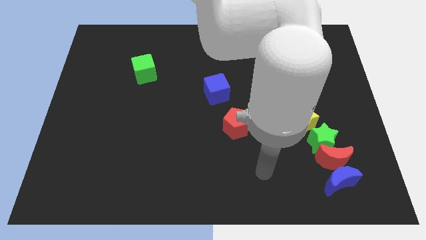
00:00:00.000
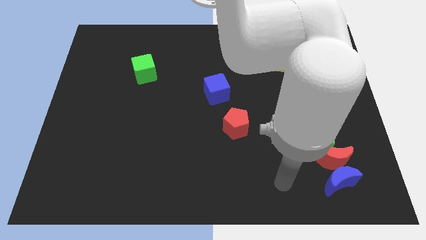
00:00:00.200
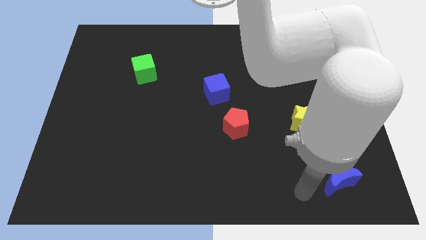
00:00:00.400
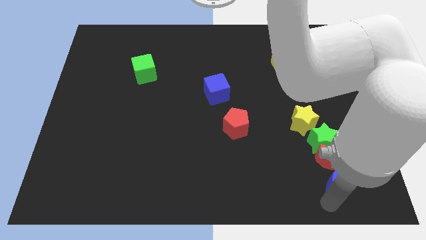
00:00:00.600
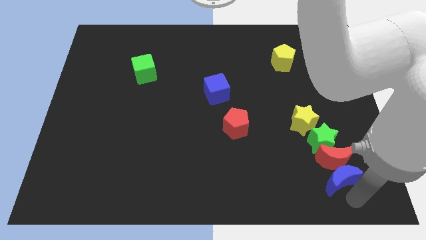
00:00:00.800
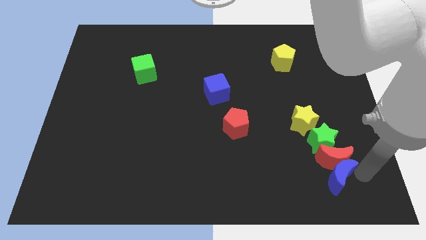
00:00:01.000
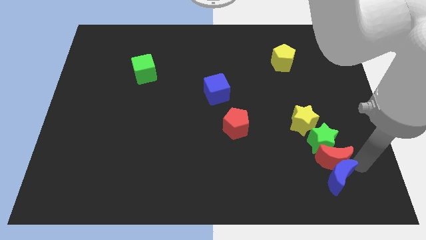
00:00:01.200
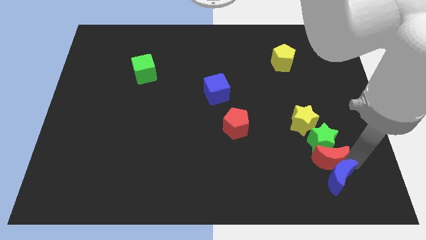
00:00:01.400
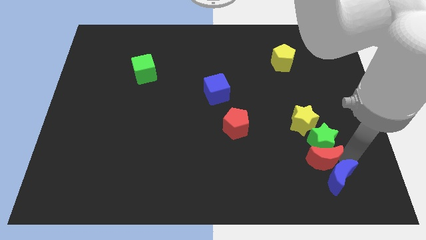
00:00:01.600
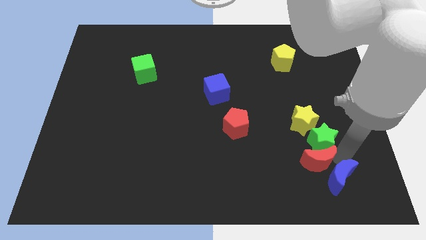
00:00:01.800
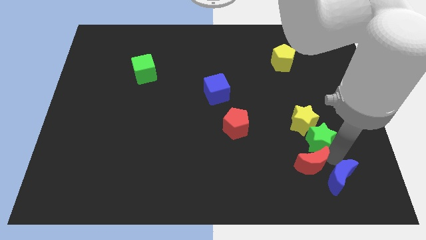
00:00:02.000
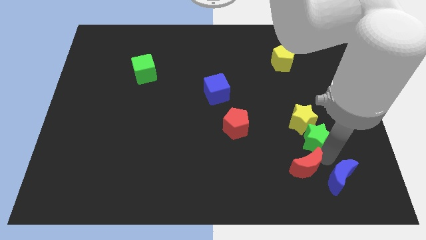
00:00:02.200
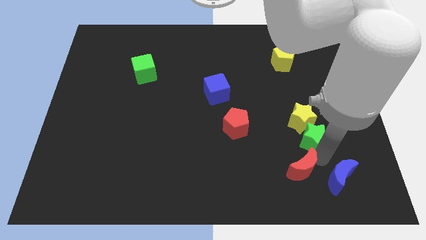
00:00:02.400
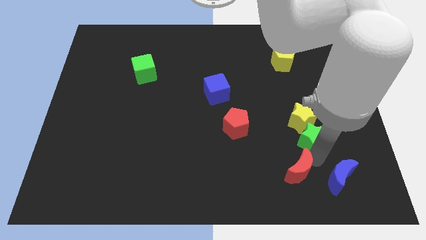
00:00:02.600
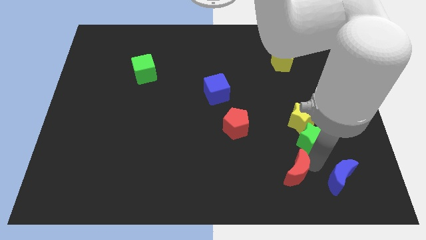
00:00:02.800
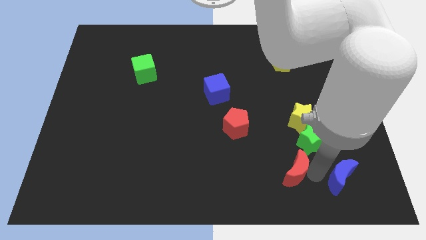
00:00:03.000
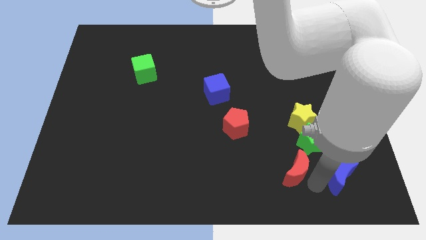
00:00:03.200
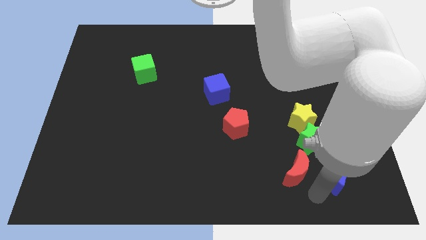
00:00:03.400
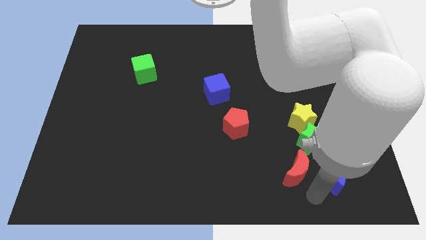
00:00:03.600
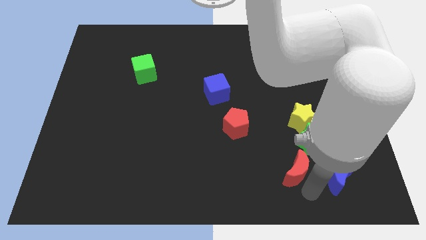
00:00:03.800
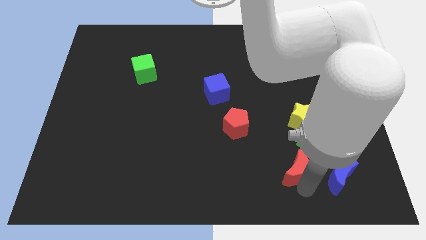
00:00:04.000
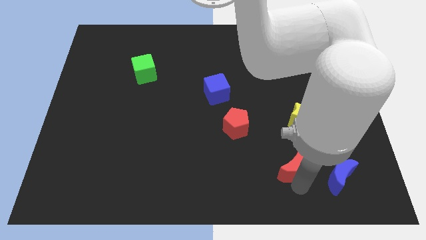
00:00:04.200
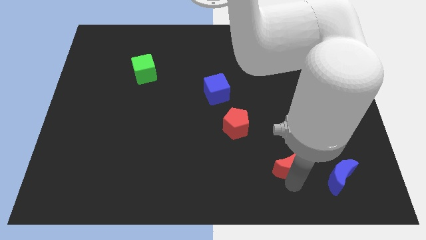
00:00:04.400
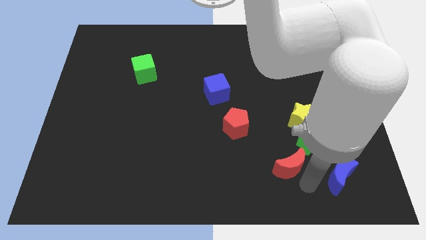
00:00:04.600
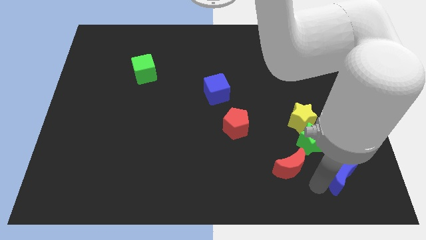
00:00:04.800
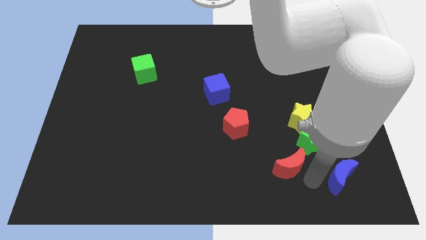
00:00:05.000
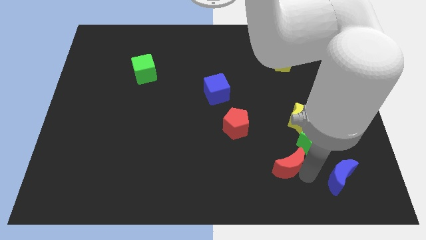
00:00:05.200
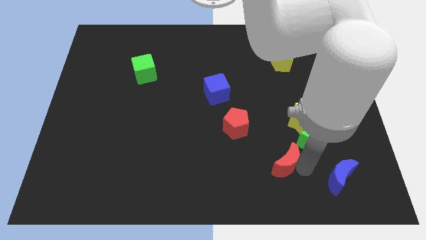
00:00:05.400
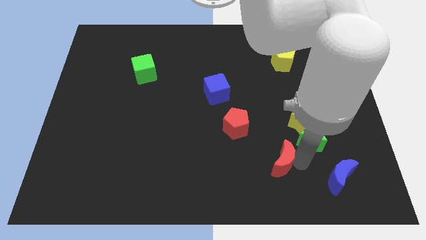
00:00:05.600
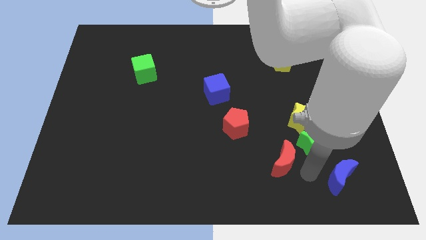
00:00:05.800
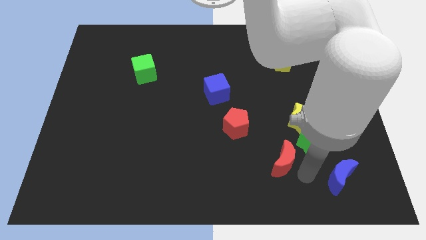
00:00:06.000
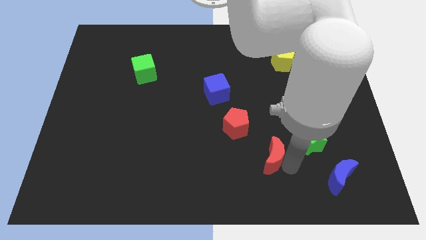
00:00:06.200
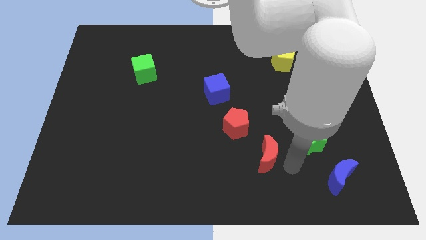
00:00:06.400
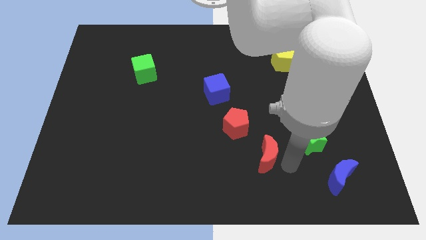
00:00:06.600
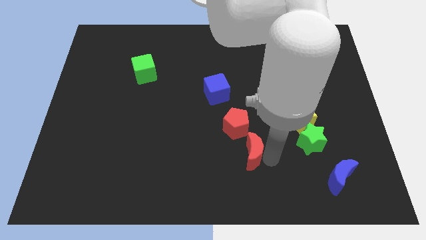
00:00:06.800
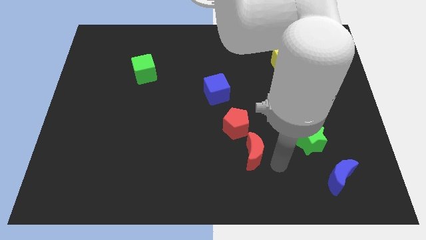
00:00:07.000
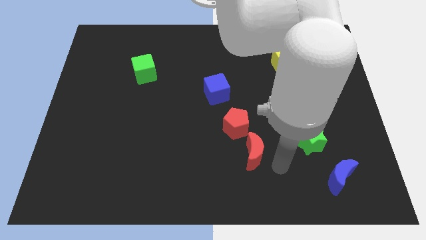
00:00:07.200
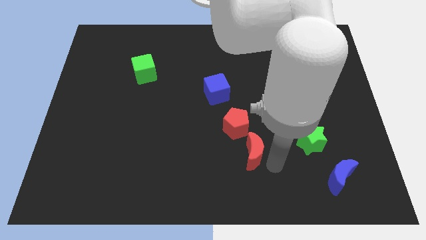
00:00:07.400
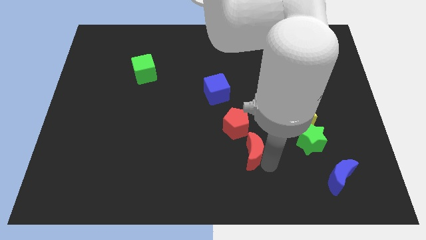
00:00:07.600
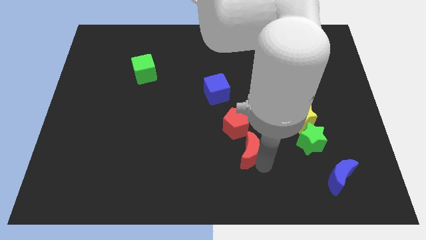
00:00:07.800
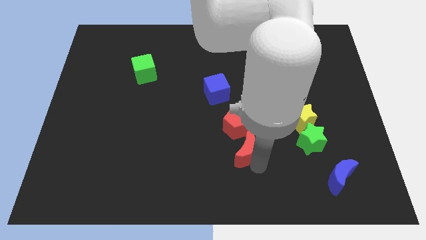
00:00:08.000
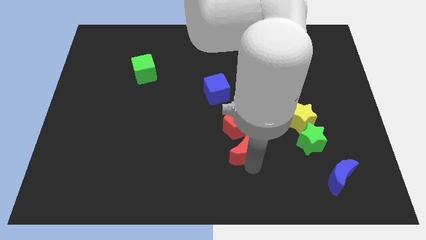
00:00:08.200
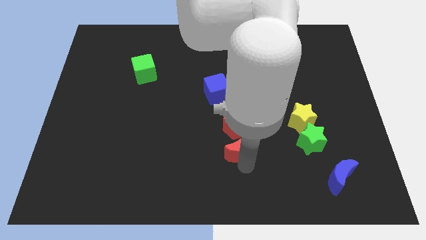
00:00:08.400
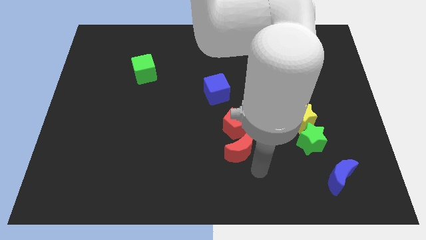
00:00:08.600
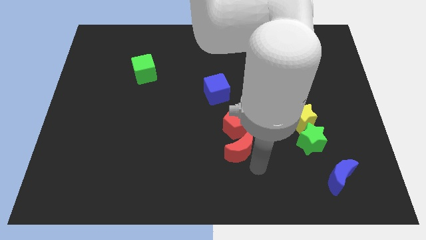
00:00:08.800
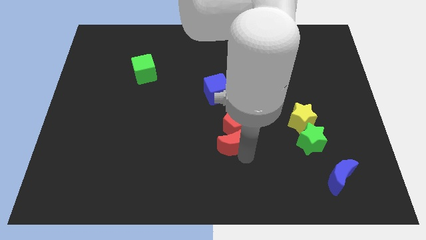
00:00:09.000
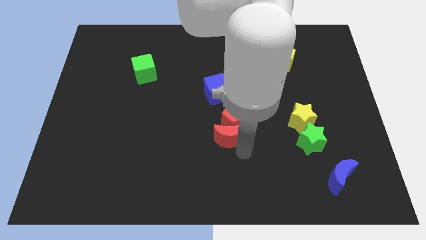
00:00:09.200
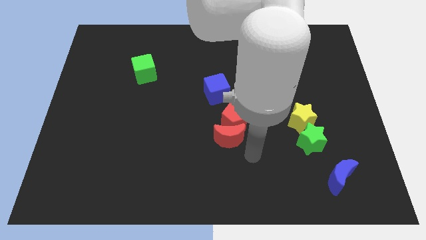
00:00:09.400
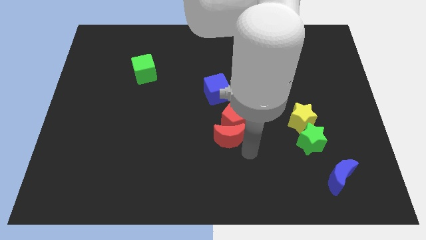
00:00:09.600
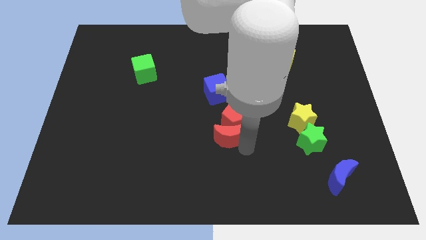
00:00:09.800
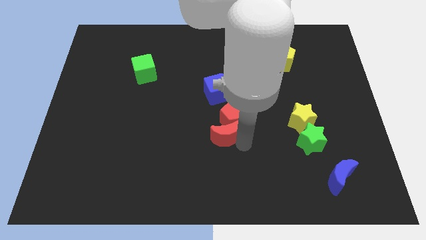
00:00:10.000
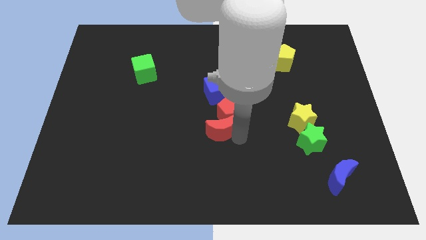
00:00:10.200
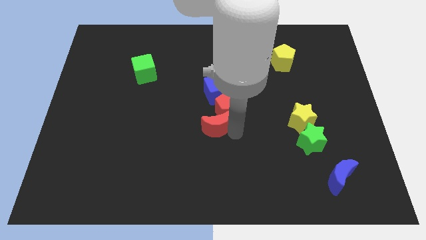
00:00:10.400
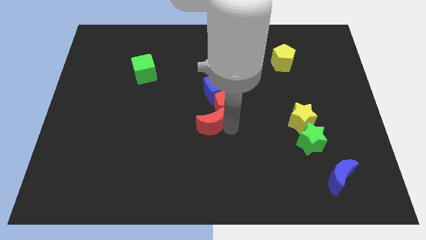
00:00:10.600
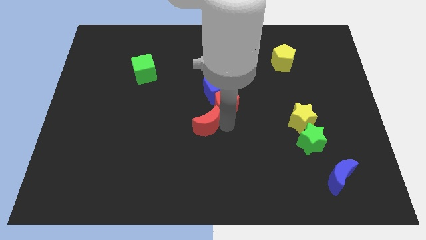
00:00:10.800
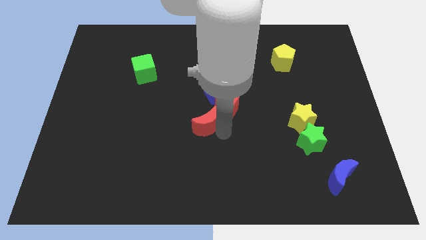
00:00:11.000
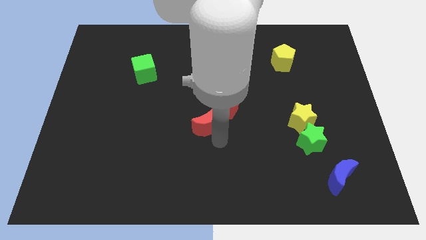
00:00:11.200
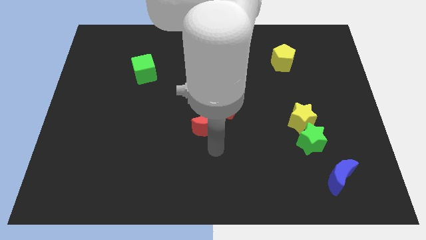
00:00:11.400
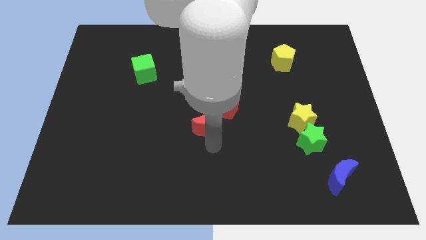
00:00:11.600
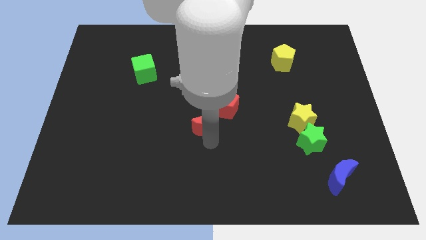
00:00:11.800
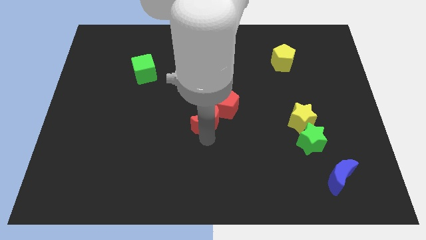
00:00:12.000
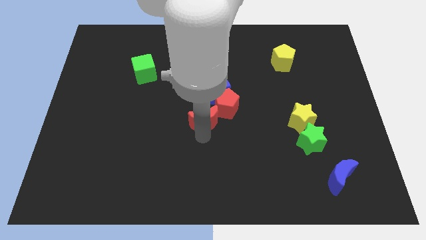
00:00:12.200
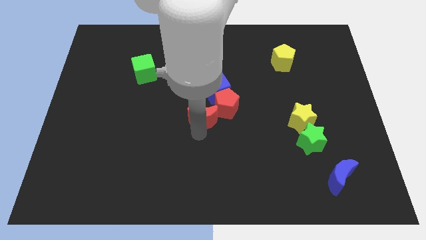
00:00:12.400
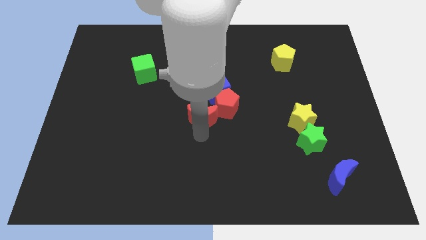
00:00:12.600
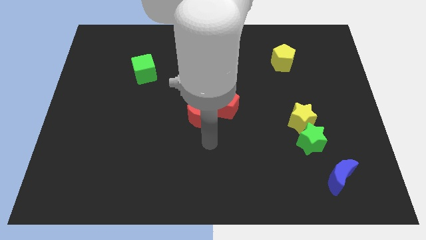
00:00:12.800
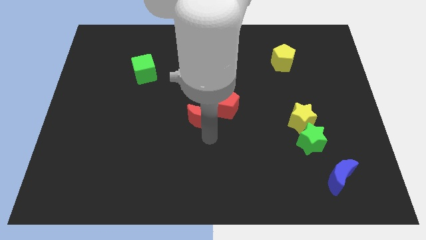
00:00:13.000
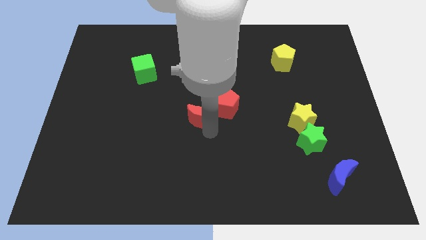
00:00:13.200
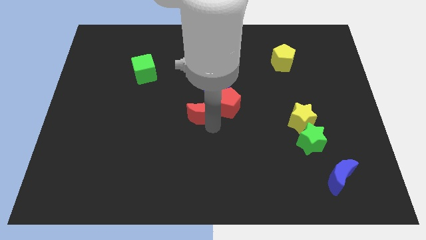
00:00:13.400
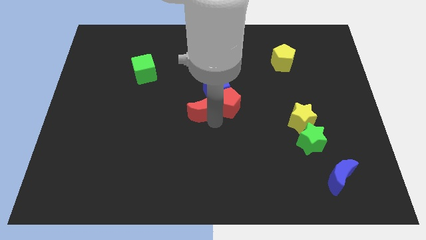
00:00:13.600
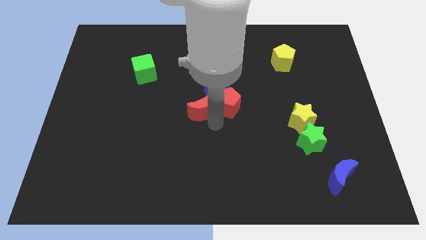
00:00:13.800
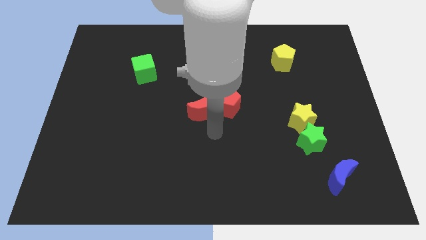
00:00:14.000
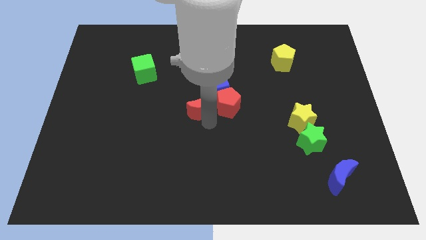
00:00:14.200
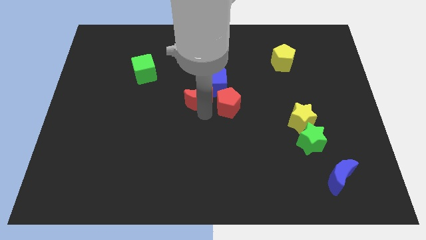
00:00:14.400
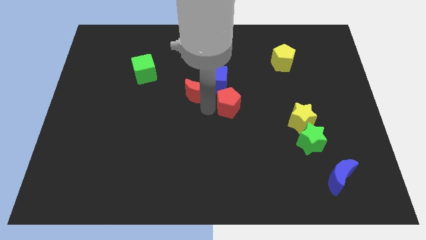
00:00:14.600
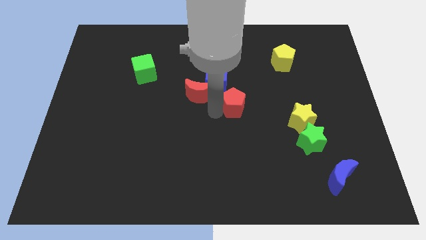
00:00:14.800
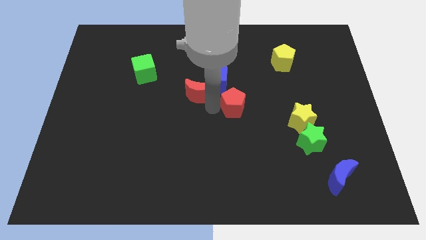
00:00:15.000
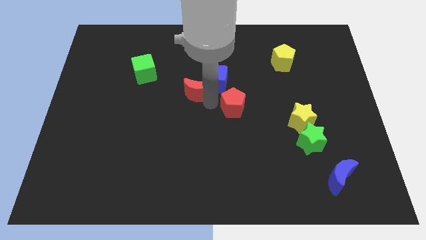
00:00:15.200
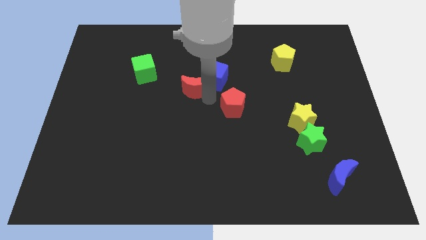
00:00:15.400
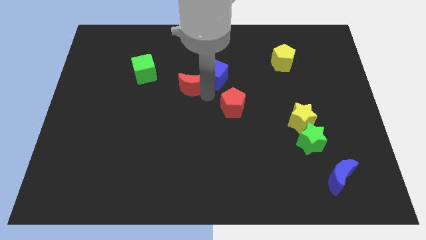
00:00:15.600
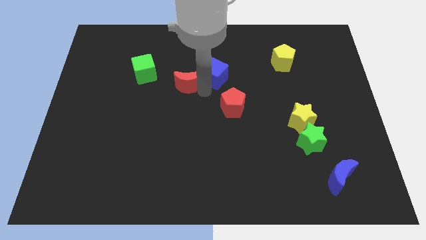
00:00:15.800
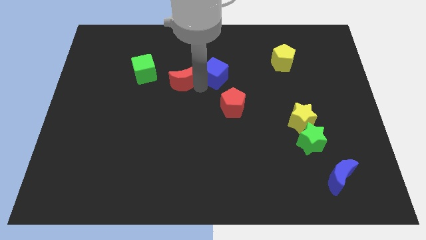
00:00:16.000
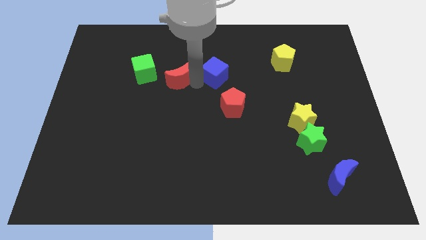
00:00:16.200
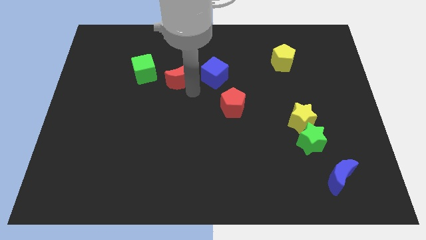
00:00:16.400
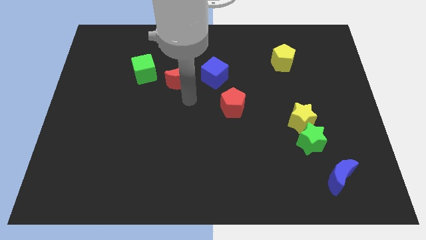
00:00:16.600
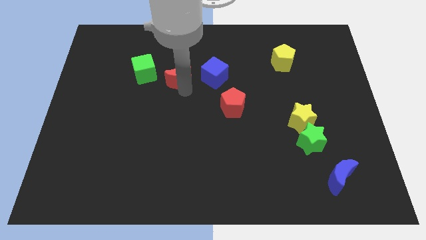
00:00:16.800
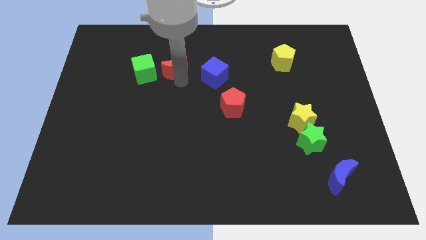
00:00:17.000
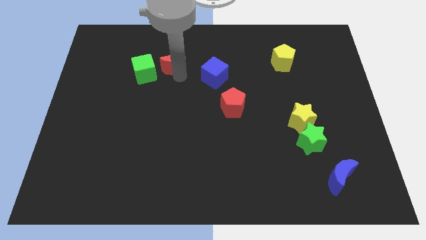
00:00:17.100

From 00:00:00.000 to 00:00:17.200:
move the red moon to the top right of the green cube
